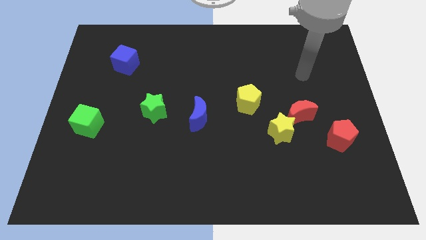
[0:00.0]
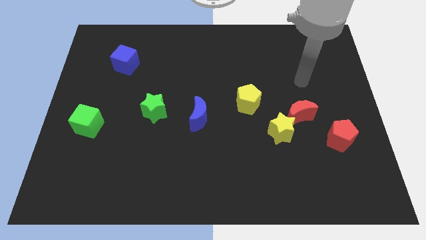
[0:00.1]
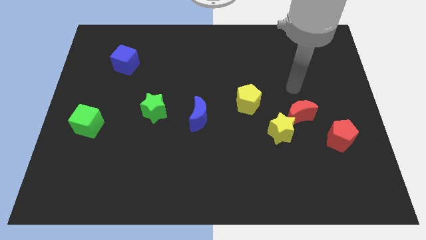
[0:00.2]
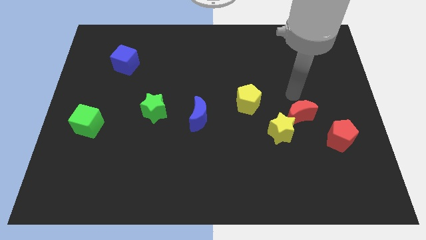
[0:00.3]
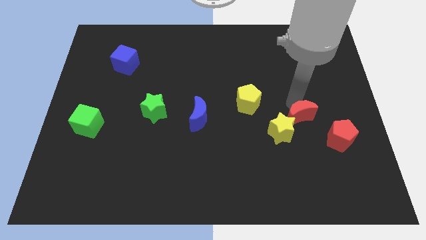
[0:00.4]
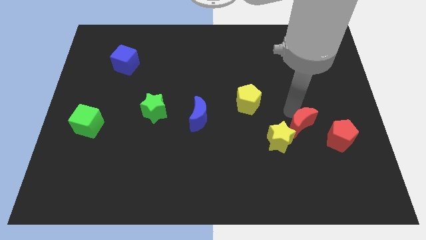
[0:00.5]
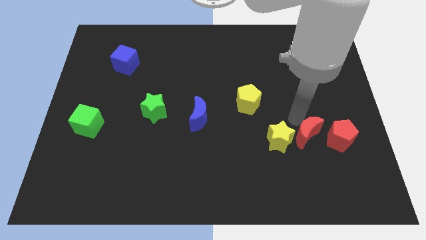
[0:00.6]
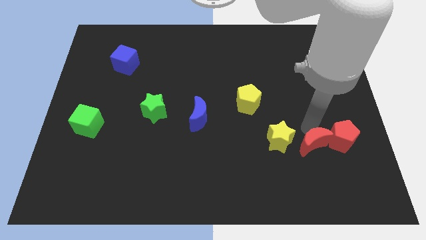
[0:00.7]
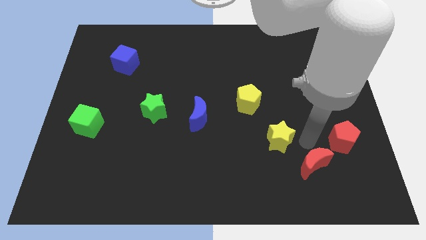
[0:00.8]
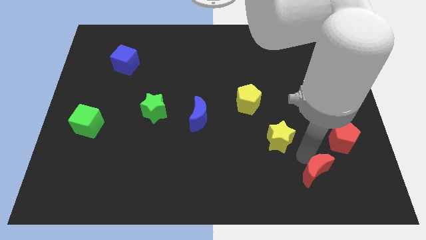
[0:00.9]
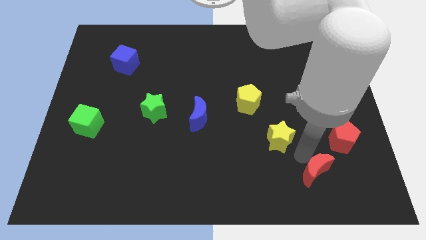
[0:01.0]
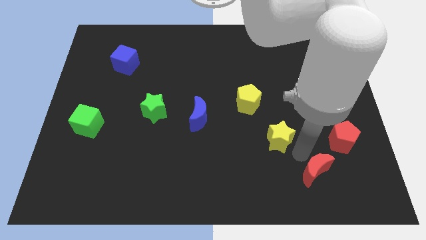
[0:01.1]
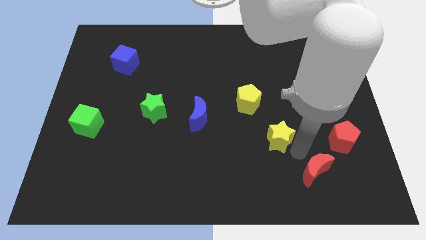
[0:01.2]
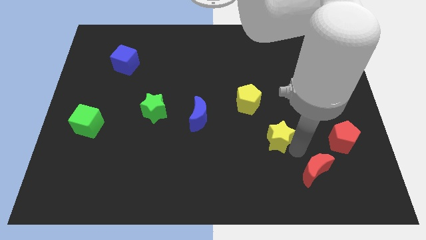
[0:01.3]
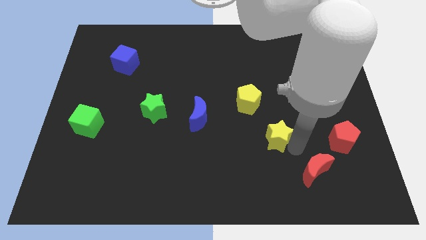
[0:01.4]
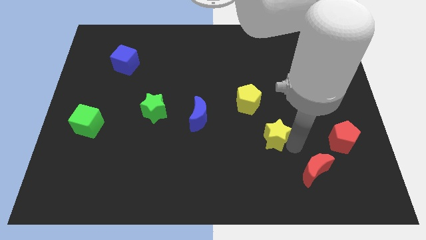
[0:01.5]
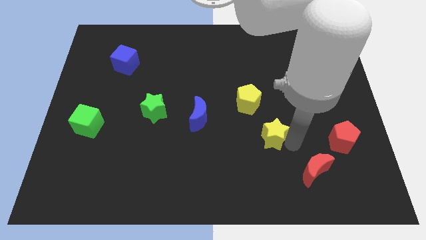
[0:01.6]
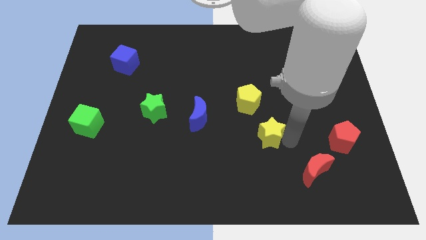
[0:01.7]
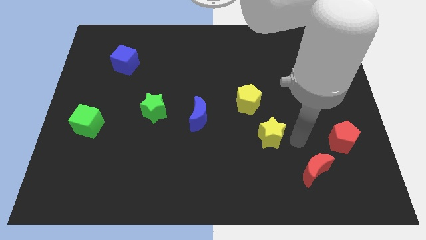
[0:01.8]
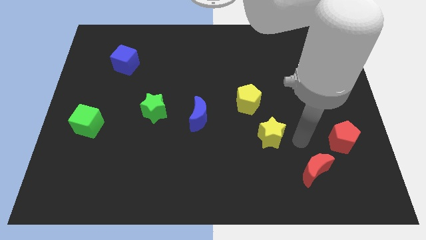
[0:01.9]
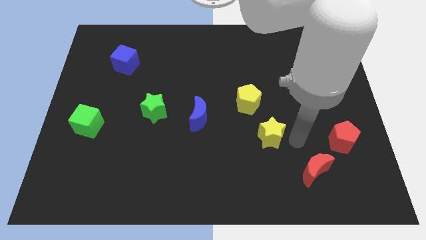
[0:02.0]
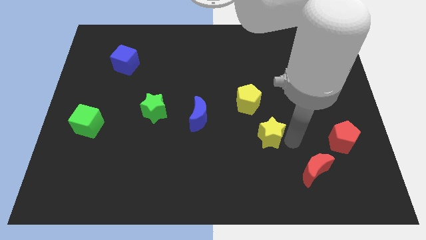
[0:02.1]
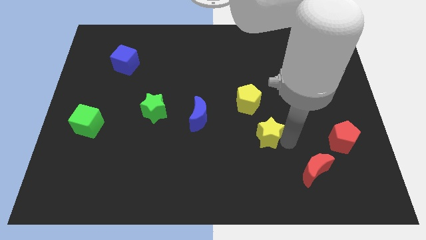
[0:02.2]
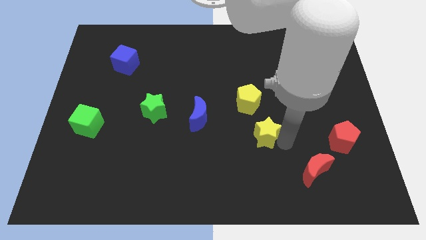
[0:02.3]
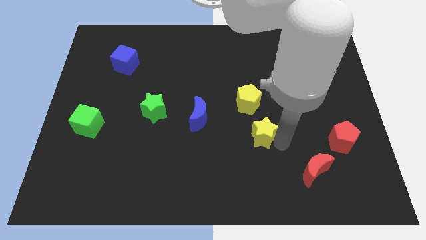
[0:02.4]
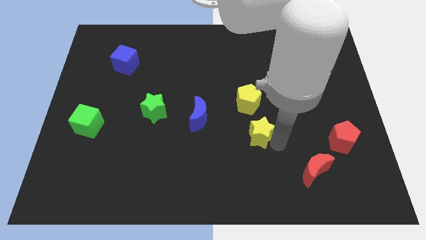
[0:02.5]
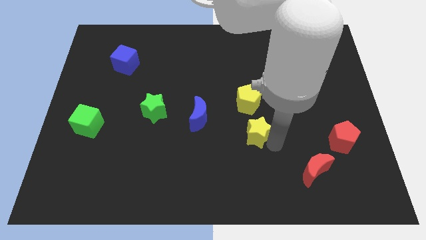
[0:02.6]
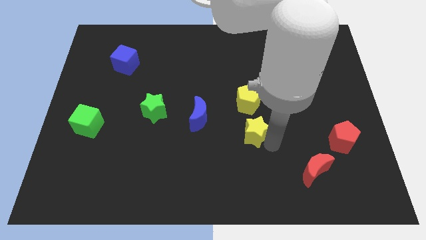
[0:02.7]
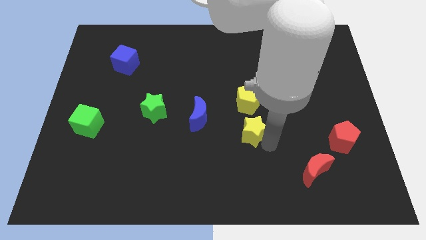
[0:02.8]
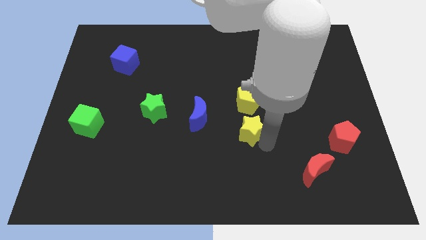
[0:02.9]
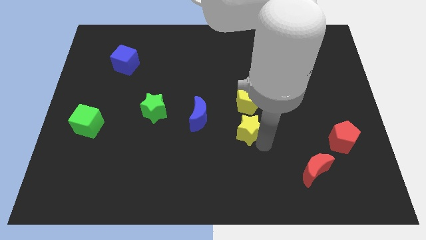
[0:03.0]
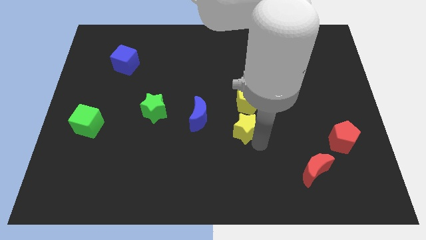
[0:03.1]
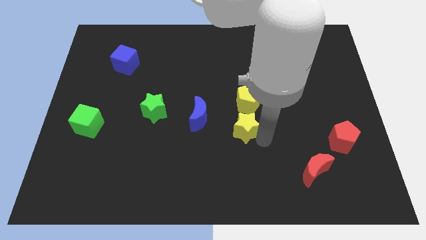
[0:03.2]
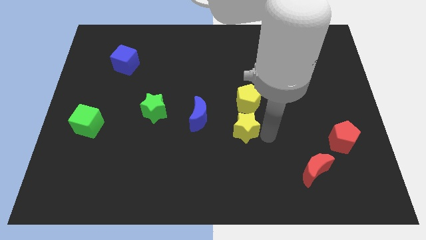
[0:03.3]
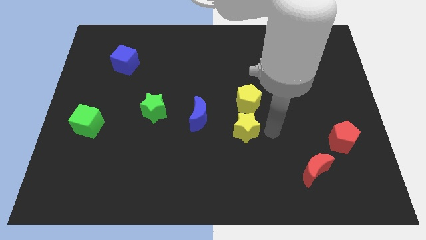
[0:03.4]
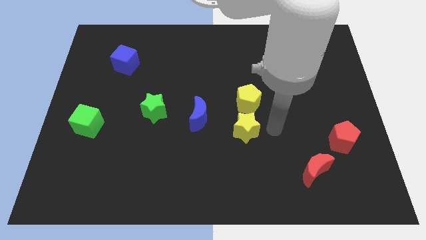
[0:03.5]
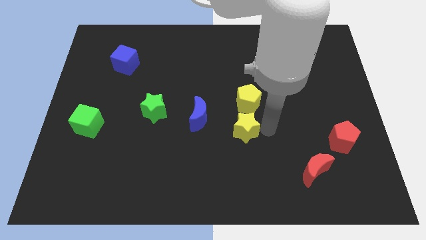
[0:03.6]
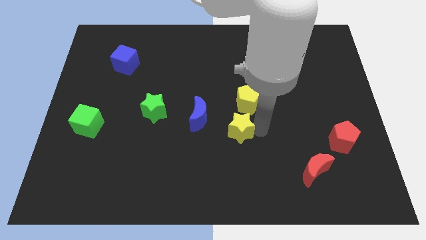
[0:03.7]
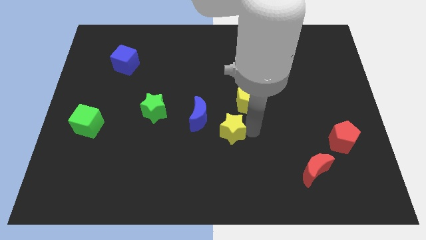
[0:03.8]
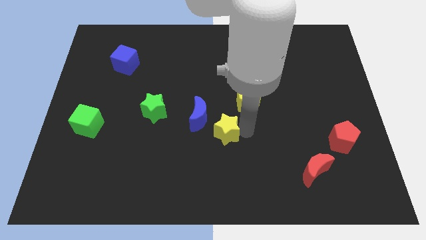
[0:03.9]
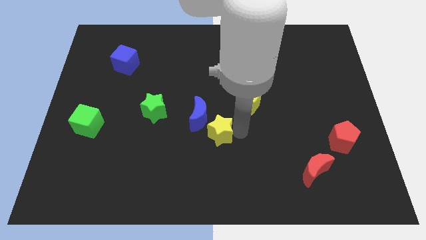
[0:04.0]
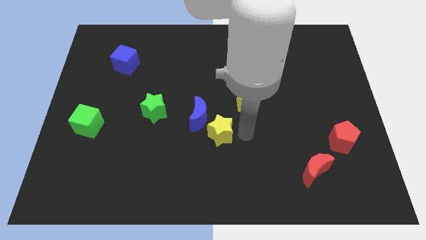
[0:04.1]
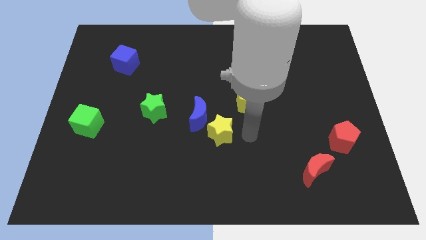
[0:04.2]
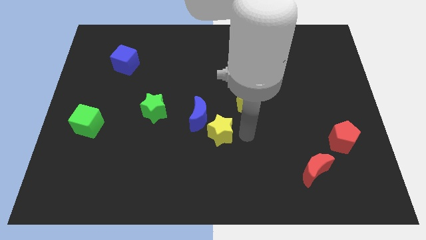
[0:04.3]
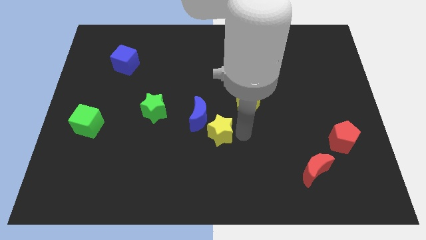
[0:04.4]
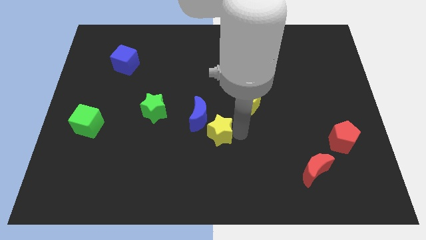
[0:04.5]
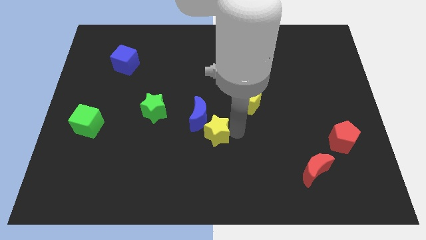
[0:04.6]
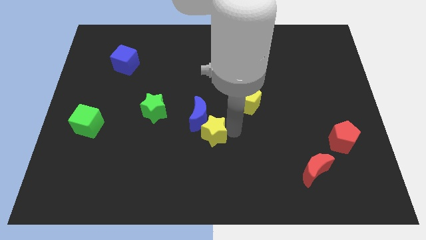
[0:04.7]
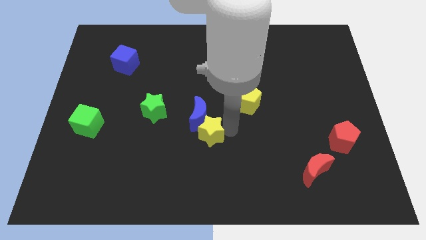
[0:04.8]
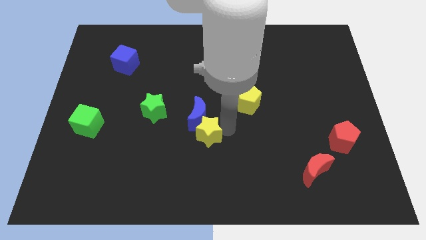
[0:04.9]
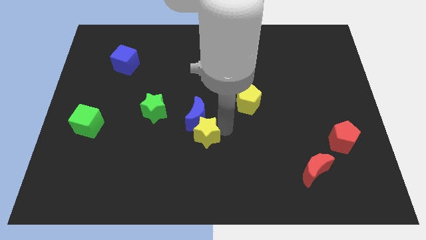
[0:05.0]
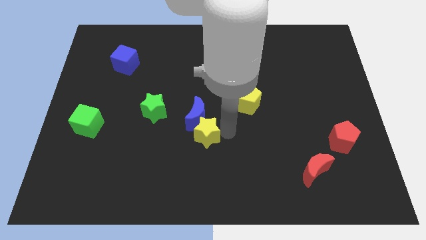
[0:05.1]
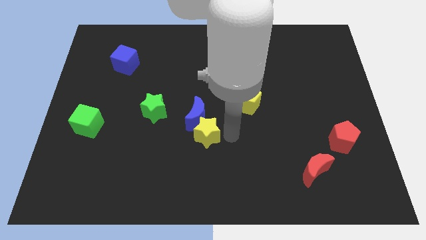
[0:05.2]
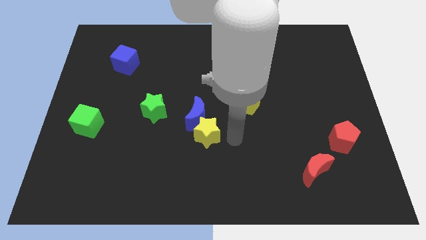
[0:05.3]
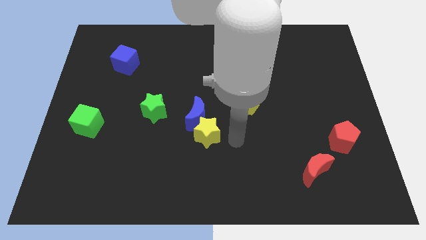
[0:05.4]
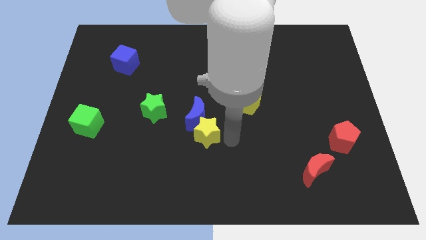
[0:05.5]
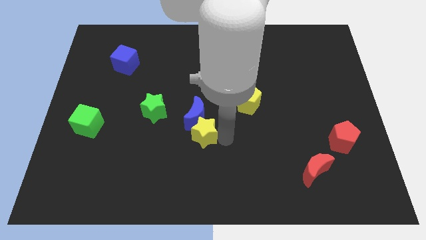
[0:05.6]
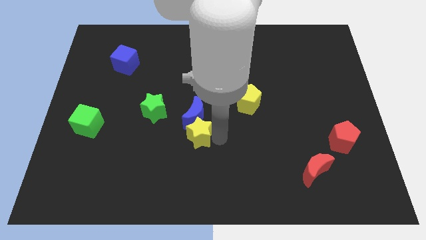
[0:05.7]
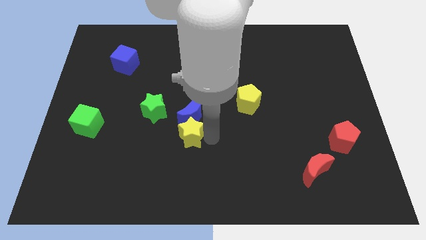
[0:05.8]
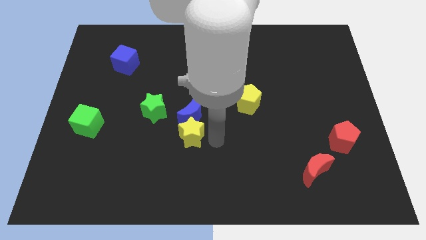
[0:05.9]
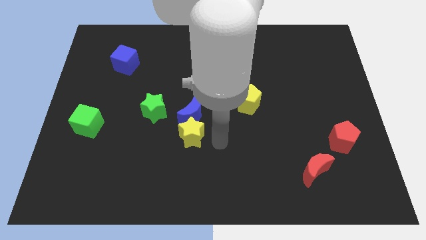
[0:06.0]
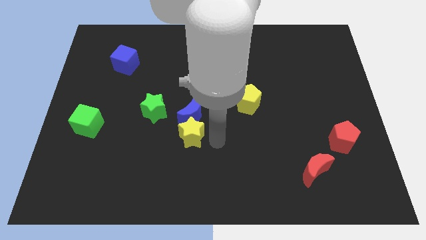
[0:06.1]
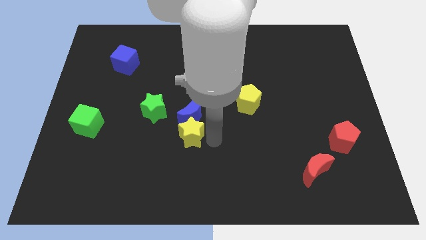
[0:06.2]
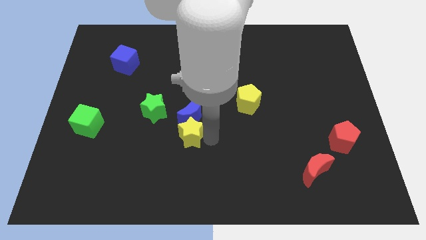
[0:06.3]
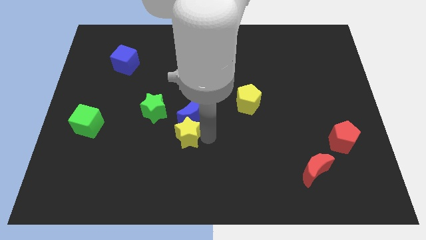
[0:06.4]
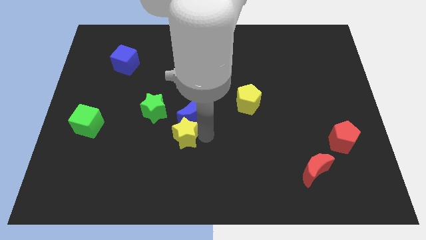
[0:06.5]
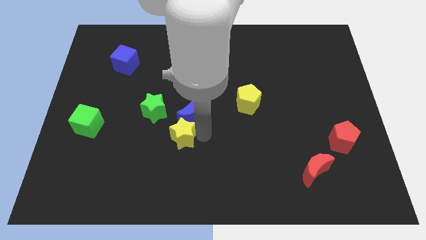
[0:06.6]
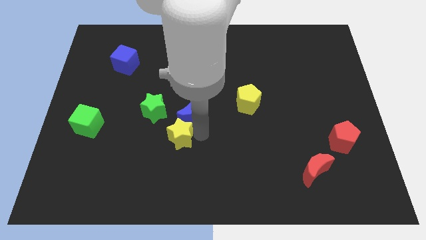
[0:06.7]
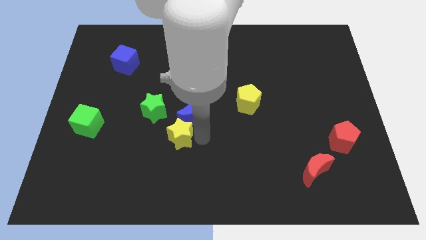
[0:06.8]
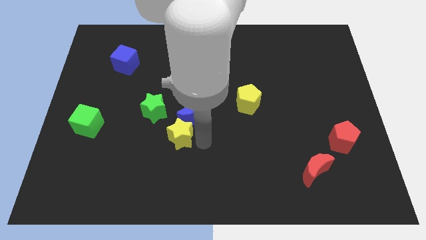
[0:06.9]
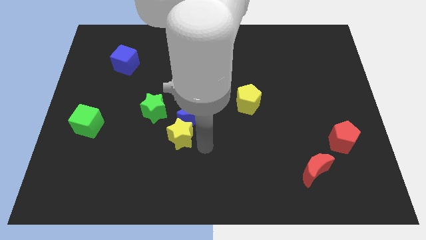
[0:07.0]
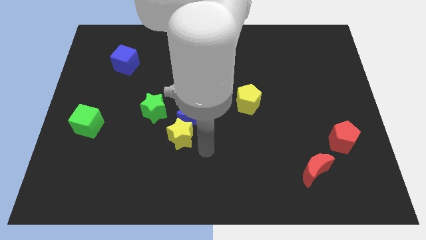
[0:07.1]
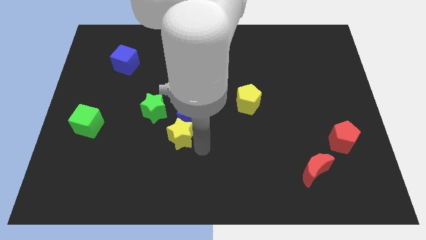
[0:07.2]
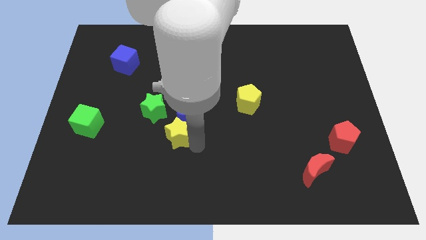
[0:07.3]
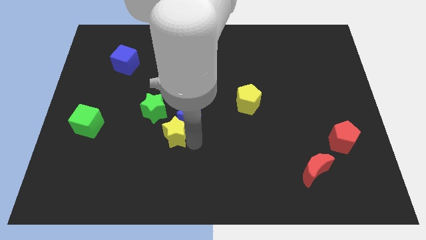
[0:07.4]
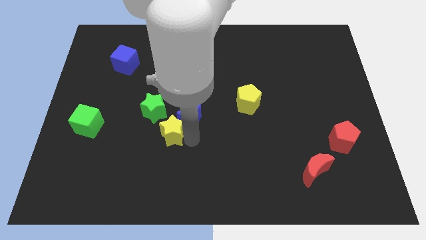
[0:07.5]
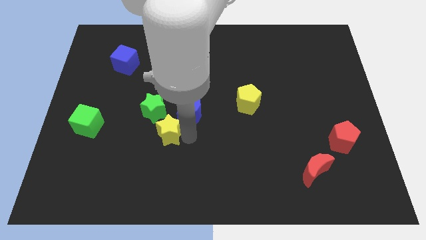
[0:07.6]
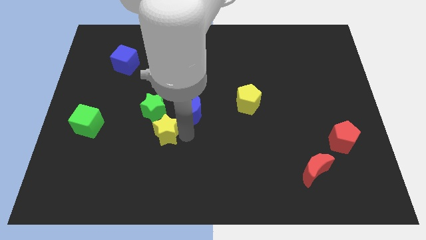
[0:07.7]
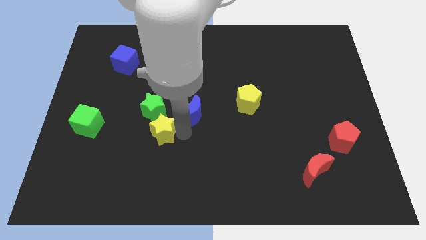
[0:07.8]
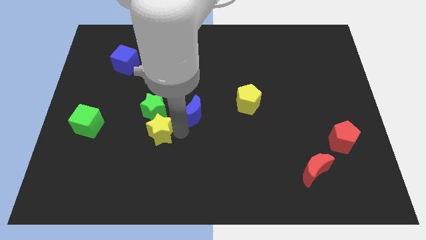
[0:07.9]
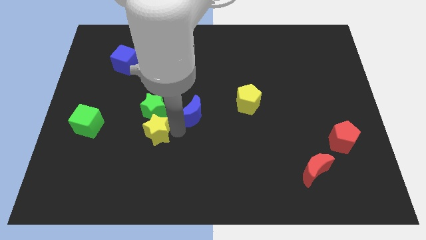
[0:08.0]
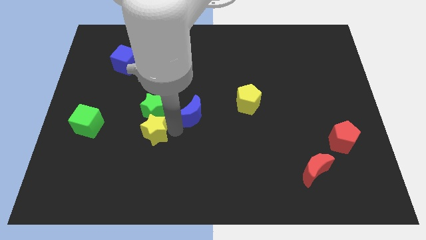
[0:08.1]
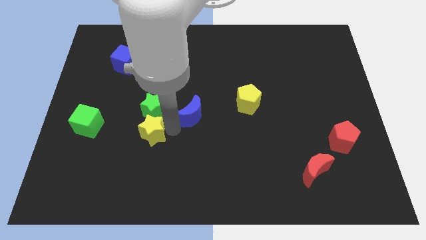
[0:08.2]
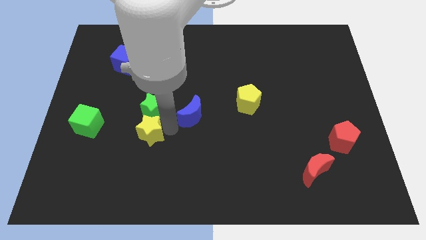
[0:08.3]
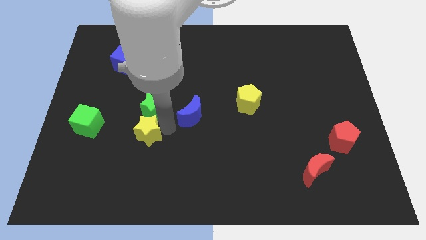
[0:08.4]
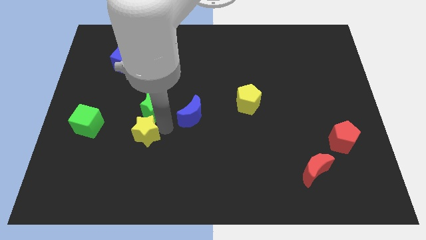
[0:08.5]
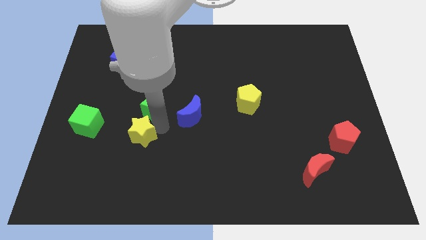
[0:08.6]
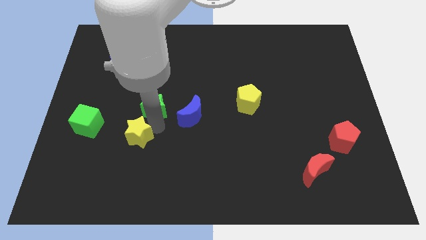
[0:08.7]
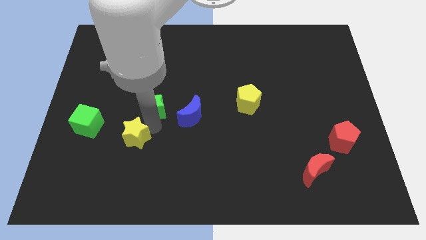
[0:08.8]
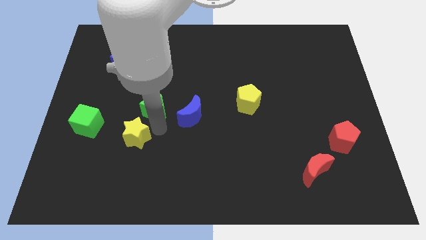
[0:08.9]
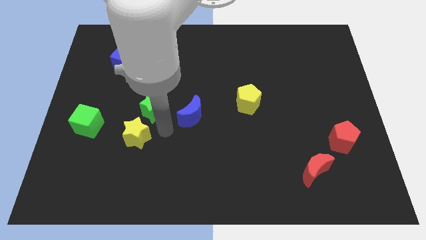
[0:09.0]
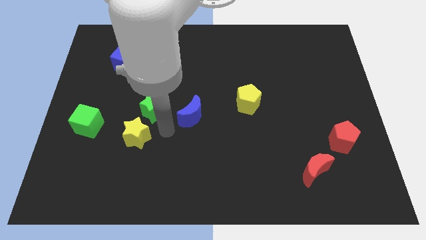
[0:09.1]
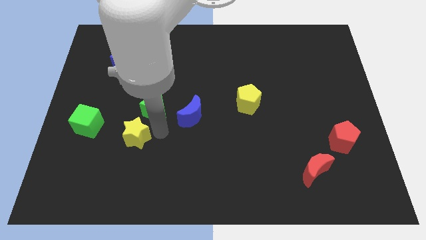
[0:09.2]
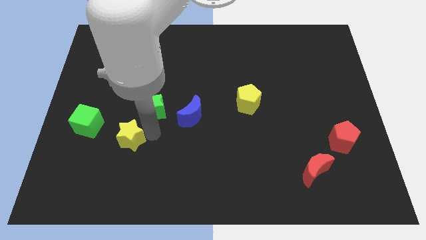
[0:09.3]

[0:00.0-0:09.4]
move the yellow star to the bottom right of the green cube
